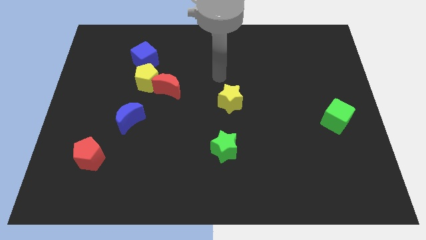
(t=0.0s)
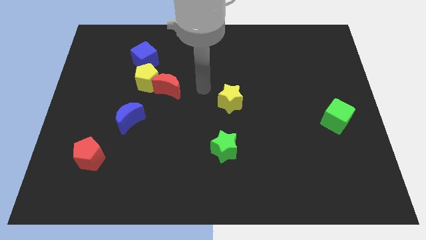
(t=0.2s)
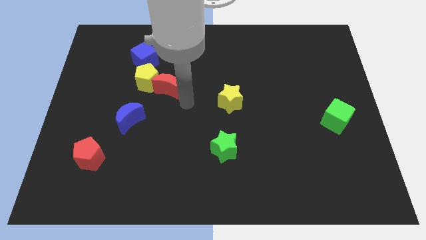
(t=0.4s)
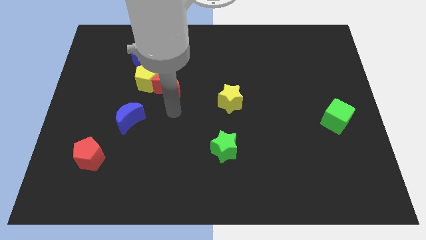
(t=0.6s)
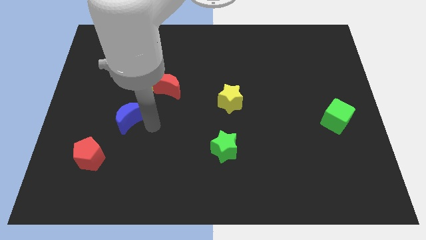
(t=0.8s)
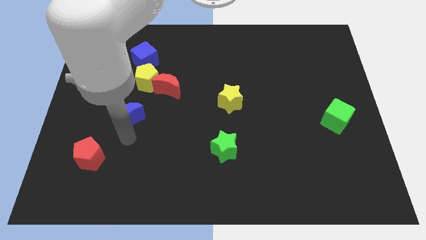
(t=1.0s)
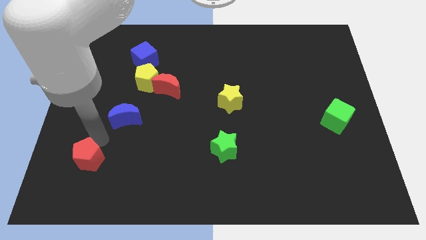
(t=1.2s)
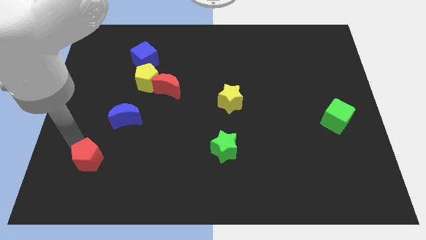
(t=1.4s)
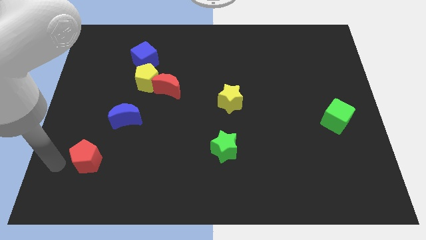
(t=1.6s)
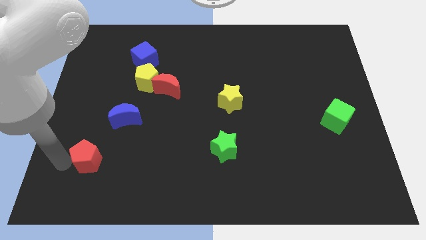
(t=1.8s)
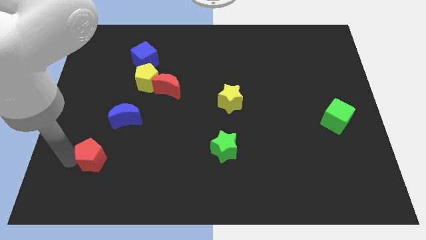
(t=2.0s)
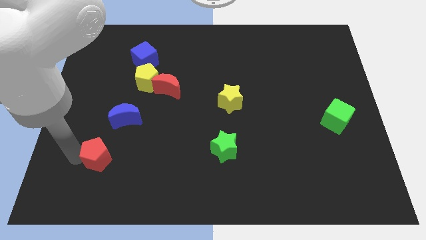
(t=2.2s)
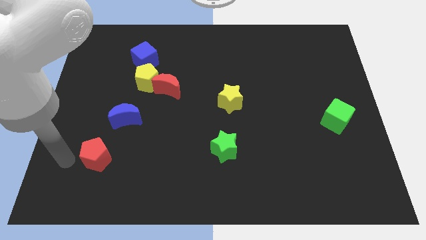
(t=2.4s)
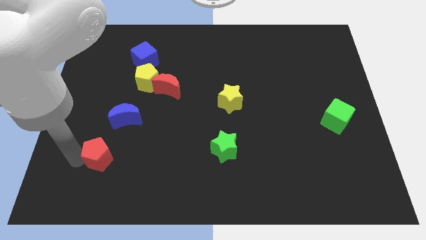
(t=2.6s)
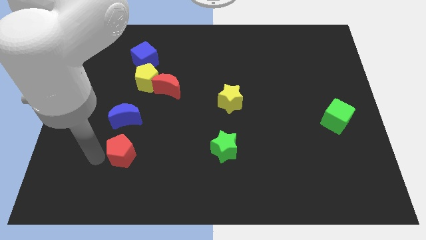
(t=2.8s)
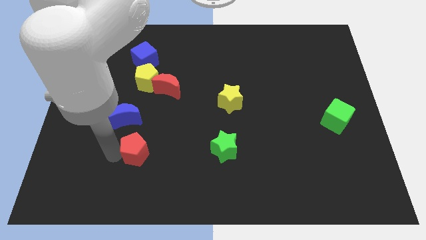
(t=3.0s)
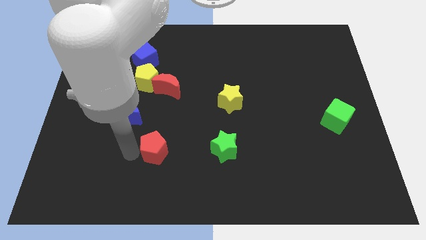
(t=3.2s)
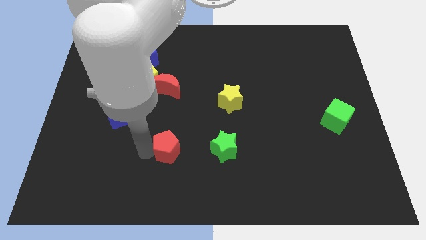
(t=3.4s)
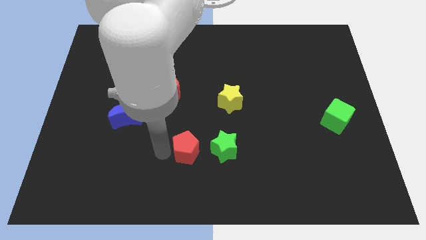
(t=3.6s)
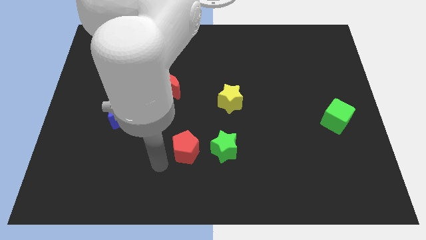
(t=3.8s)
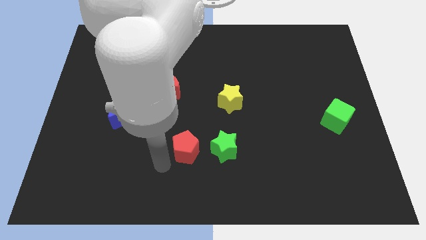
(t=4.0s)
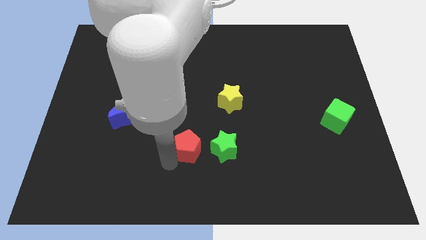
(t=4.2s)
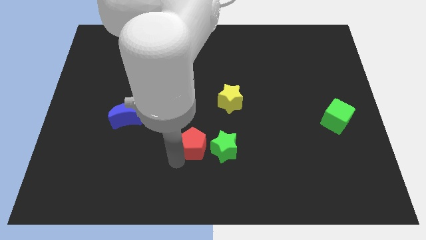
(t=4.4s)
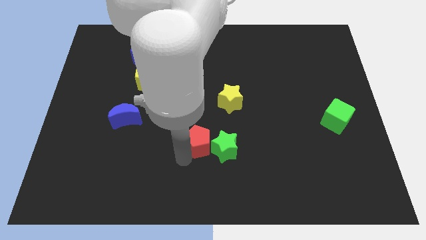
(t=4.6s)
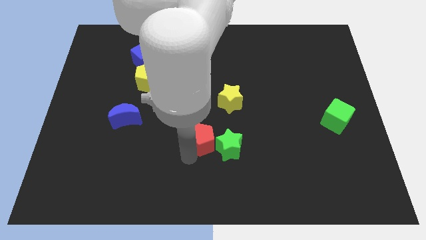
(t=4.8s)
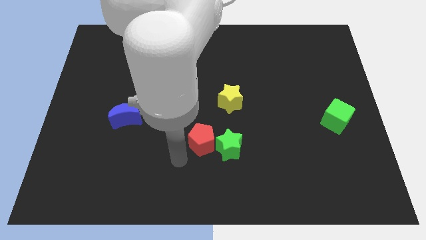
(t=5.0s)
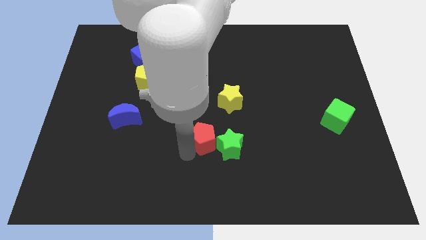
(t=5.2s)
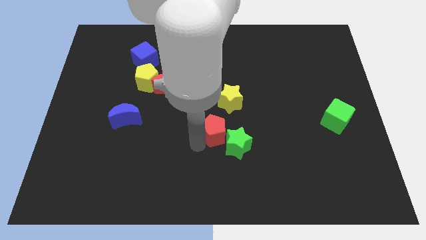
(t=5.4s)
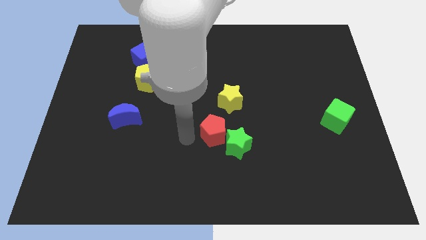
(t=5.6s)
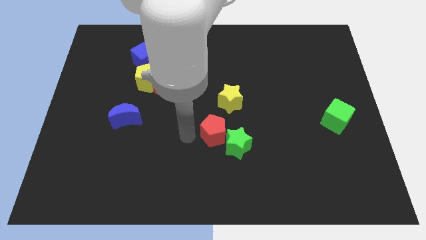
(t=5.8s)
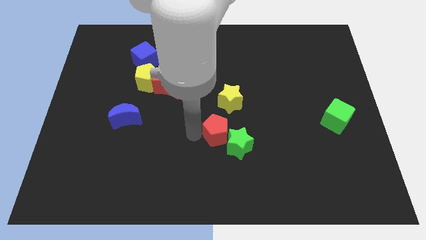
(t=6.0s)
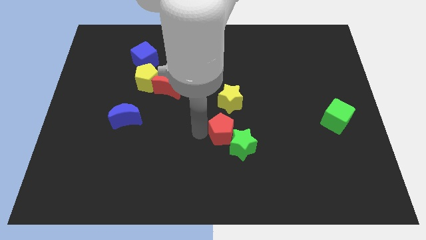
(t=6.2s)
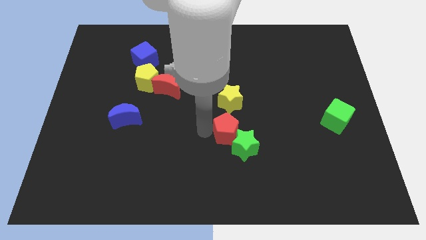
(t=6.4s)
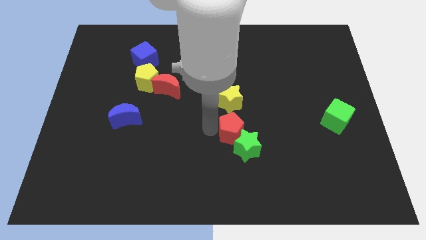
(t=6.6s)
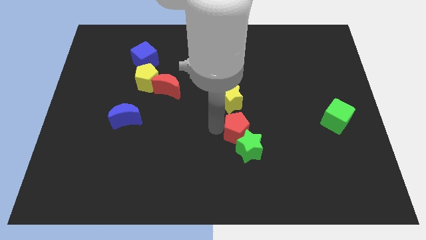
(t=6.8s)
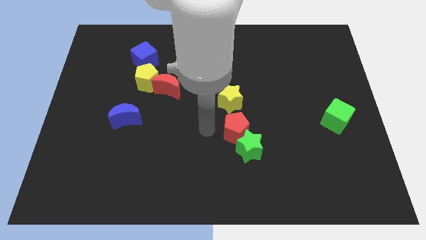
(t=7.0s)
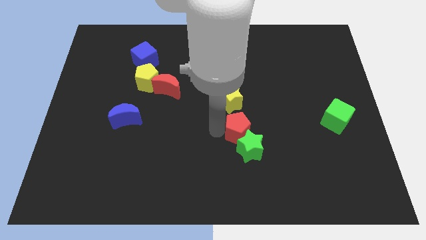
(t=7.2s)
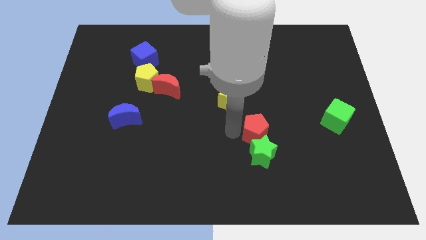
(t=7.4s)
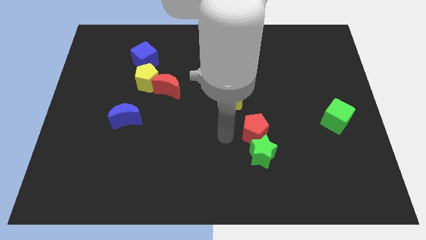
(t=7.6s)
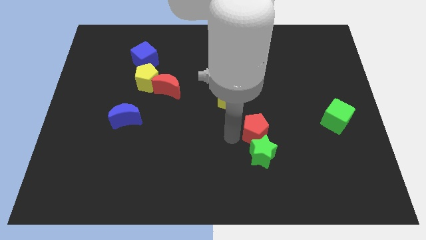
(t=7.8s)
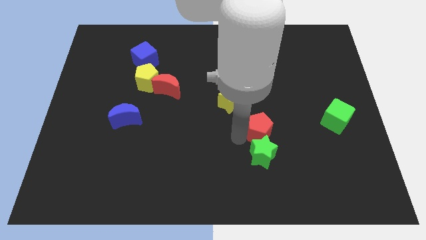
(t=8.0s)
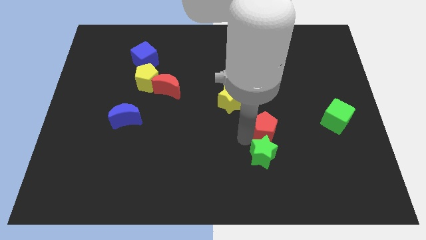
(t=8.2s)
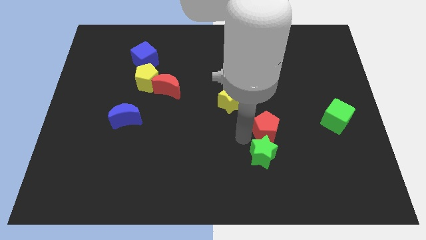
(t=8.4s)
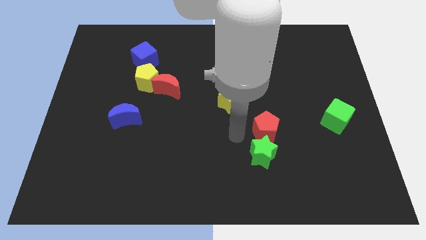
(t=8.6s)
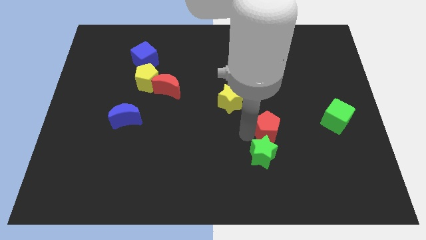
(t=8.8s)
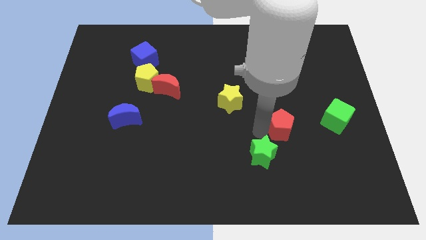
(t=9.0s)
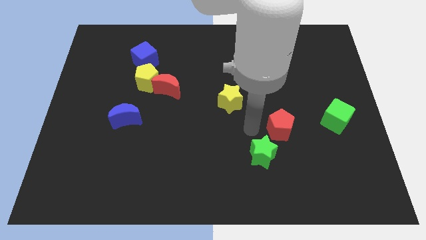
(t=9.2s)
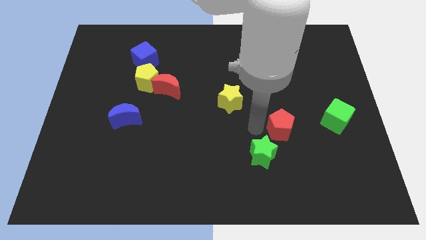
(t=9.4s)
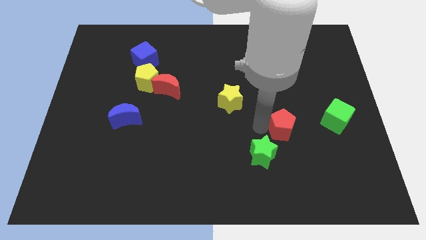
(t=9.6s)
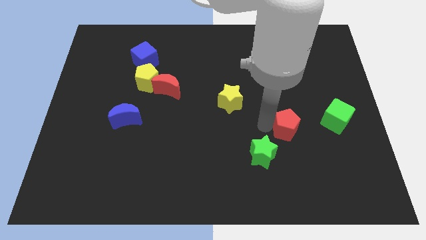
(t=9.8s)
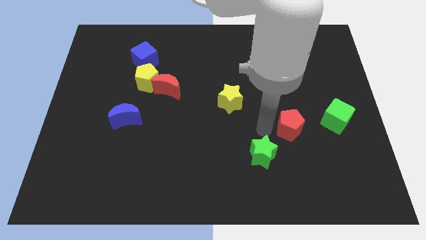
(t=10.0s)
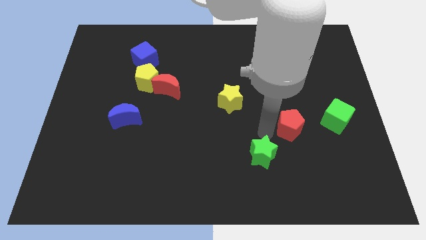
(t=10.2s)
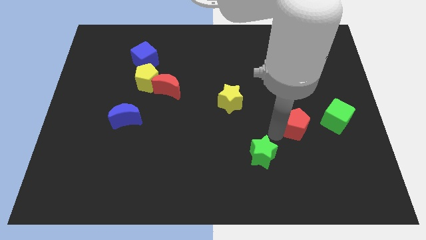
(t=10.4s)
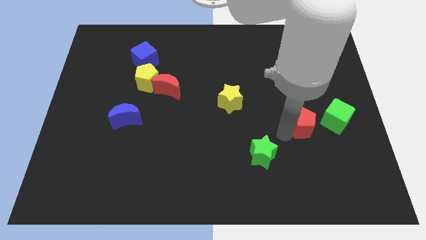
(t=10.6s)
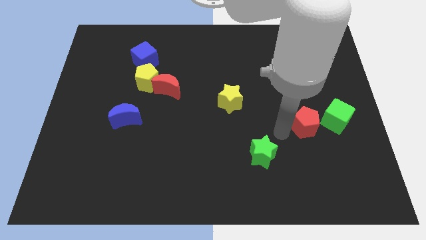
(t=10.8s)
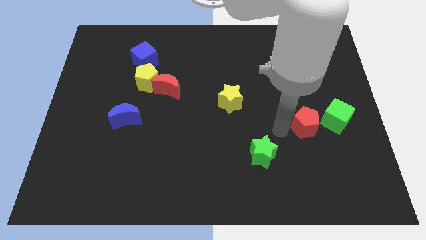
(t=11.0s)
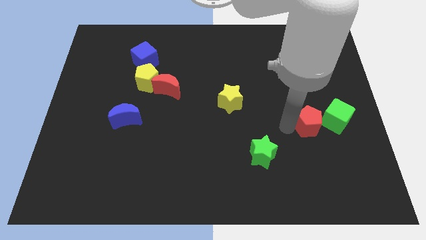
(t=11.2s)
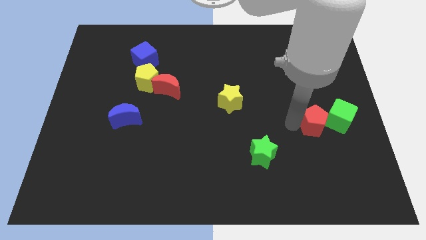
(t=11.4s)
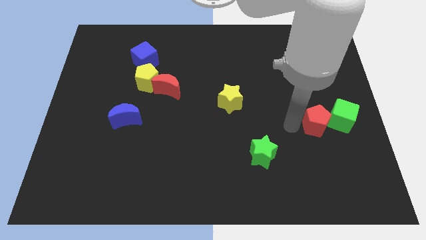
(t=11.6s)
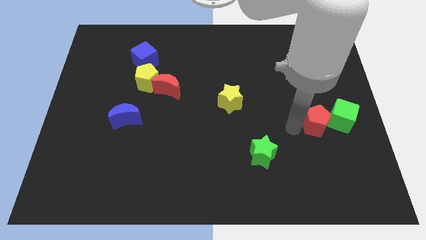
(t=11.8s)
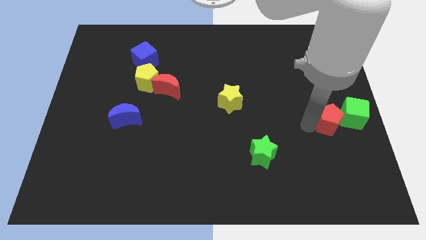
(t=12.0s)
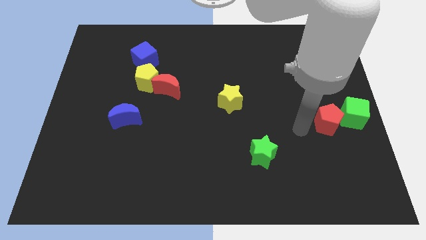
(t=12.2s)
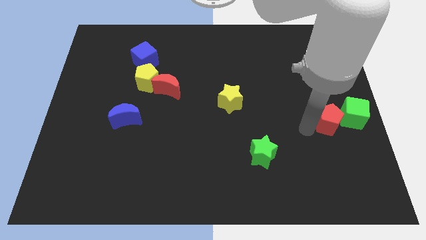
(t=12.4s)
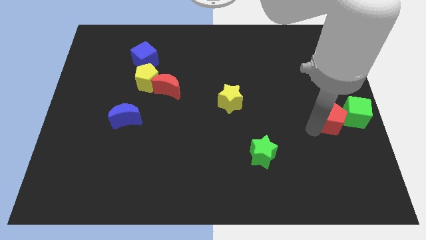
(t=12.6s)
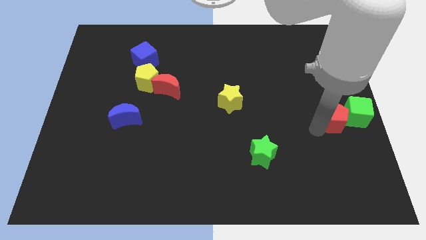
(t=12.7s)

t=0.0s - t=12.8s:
put the red pentagon close to the green cube

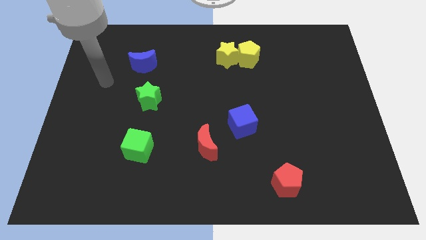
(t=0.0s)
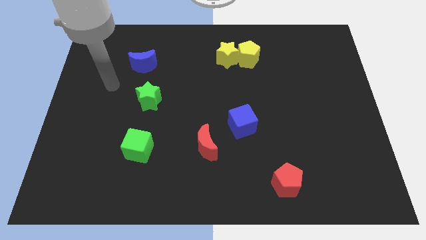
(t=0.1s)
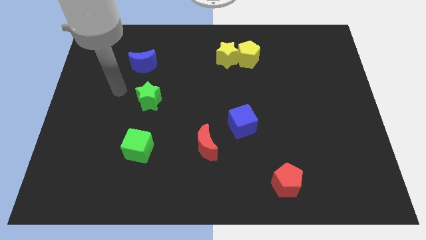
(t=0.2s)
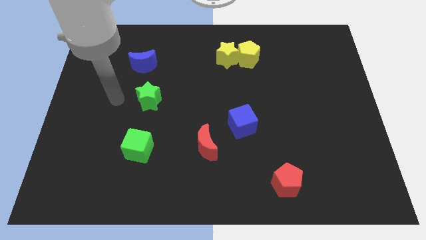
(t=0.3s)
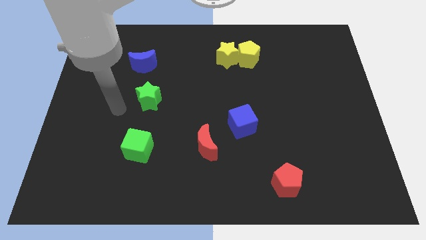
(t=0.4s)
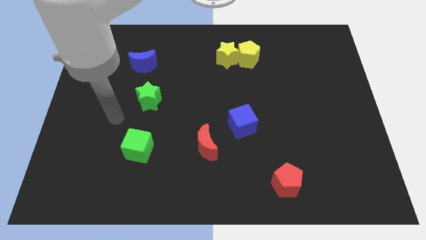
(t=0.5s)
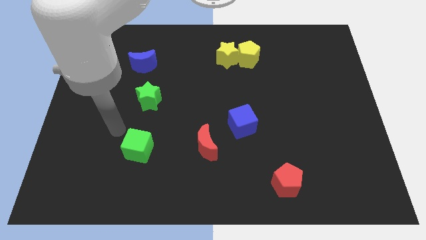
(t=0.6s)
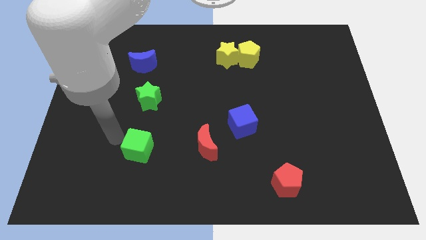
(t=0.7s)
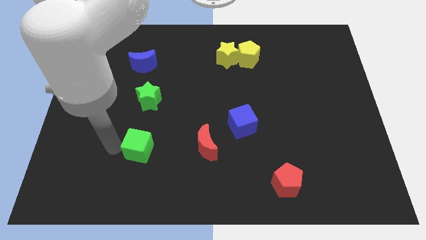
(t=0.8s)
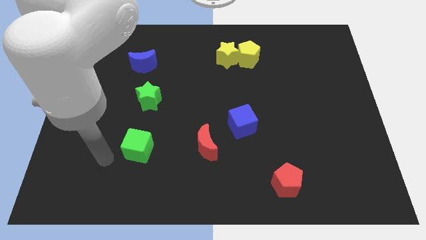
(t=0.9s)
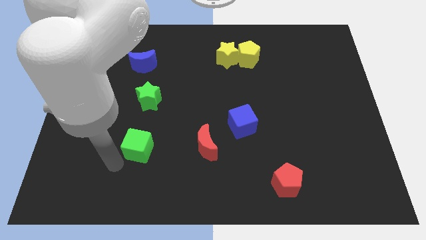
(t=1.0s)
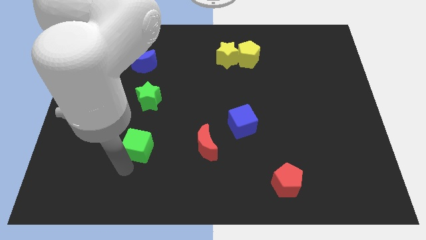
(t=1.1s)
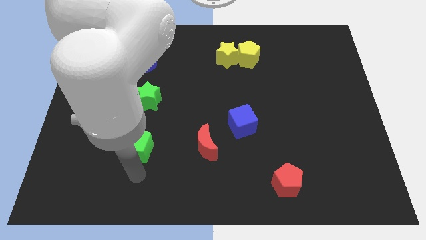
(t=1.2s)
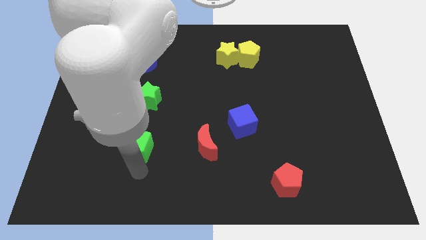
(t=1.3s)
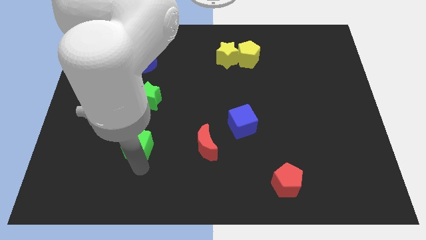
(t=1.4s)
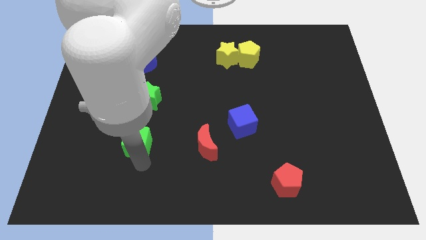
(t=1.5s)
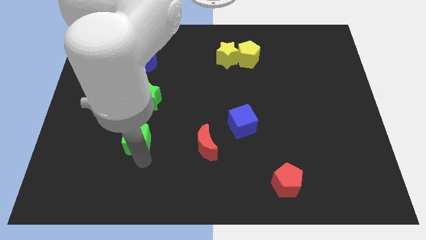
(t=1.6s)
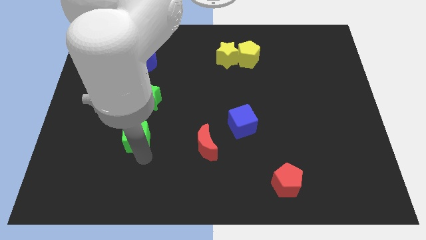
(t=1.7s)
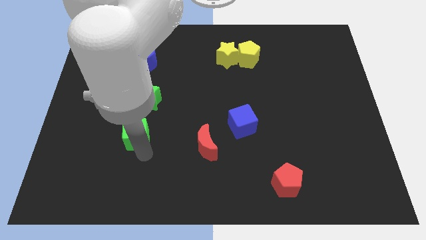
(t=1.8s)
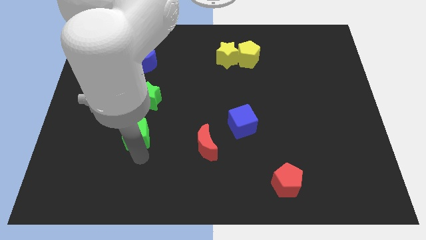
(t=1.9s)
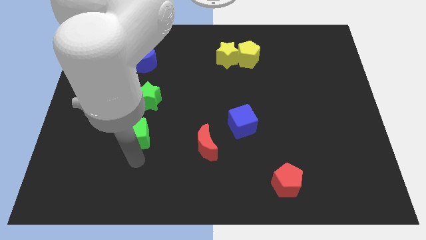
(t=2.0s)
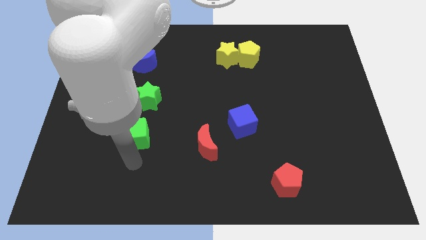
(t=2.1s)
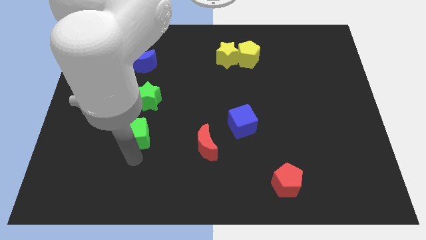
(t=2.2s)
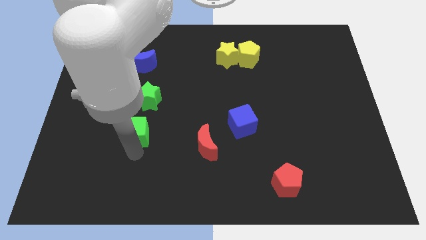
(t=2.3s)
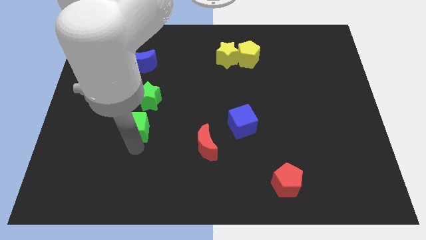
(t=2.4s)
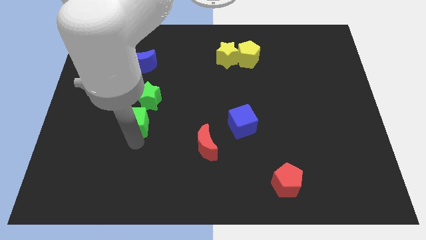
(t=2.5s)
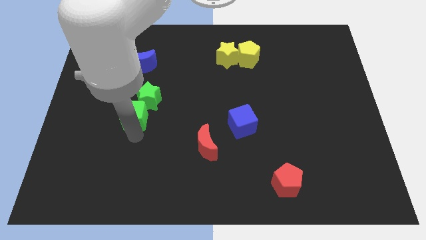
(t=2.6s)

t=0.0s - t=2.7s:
push the green cube to the green star
